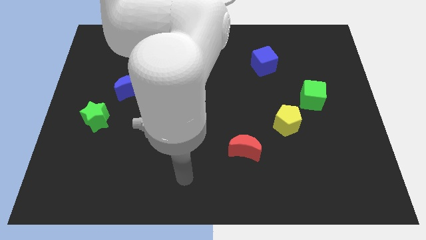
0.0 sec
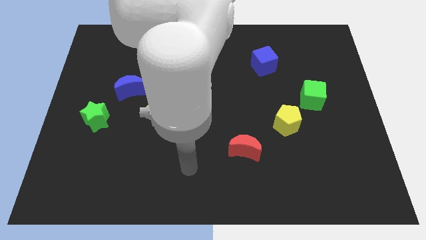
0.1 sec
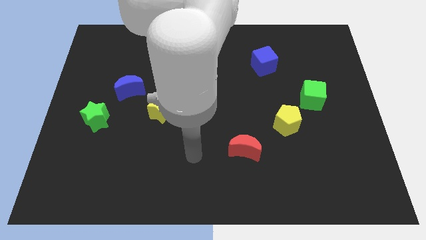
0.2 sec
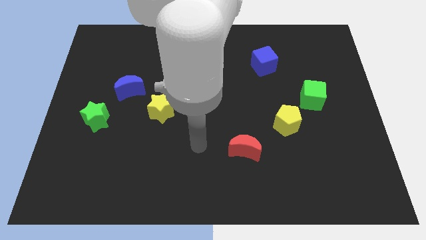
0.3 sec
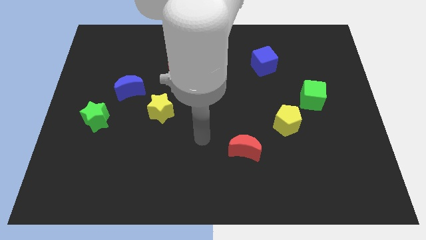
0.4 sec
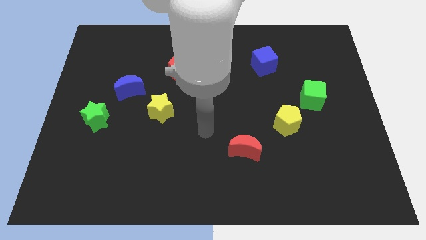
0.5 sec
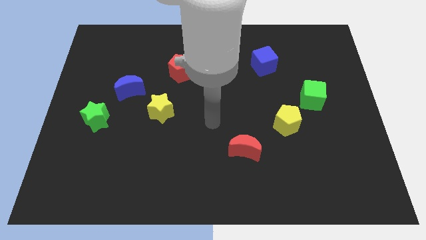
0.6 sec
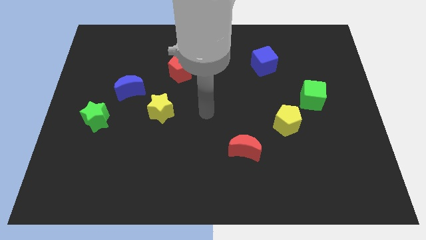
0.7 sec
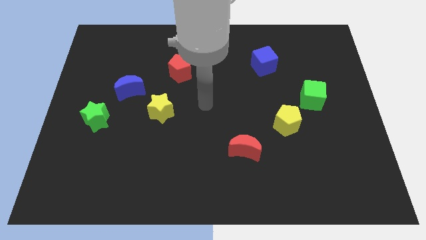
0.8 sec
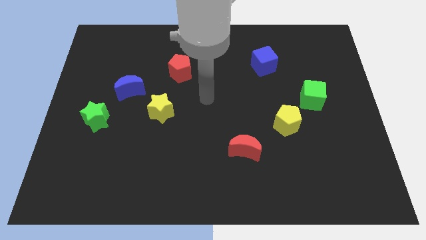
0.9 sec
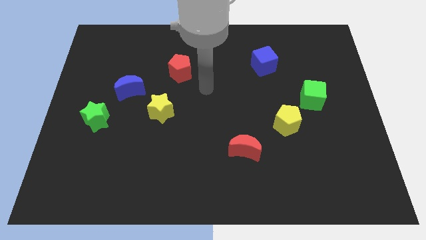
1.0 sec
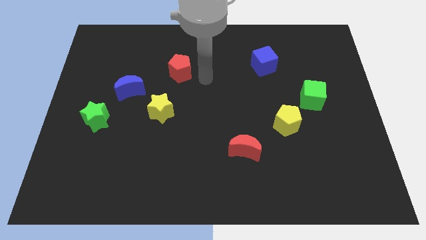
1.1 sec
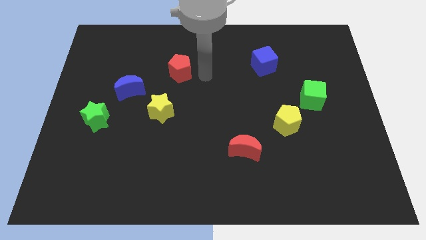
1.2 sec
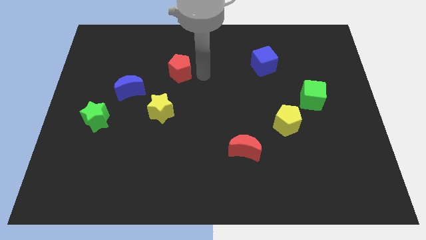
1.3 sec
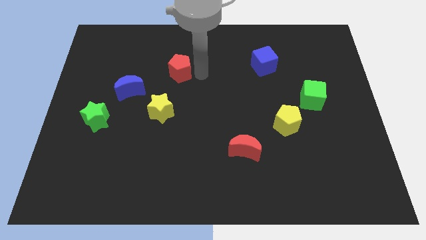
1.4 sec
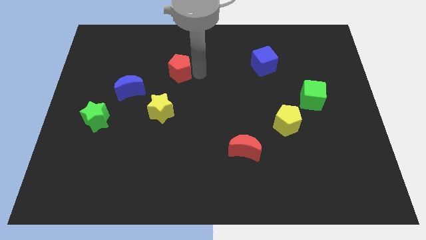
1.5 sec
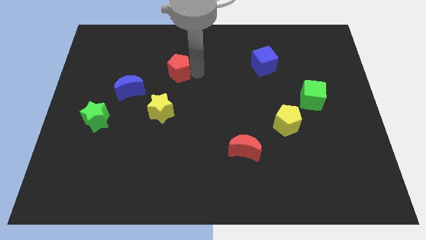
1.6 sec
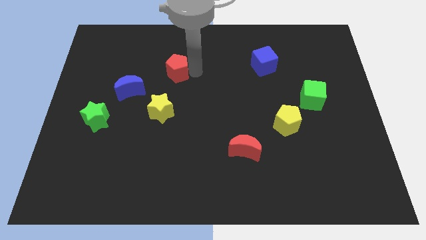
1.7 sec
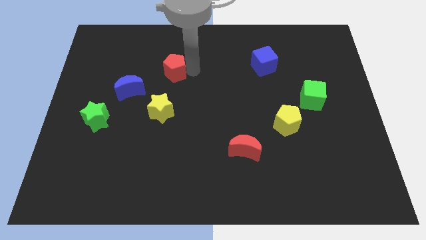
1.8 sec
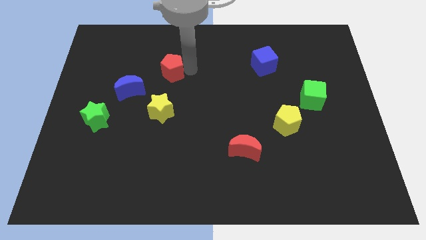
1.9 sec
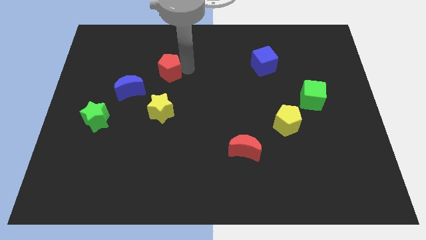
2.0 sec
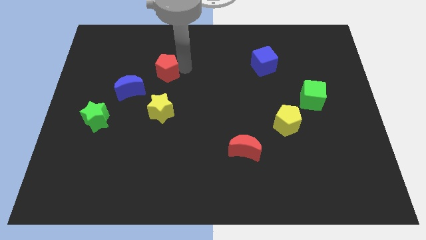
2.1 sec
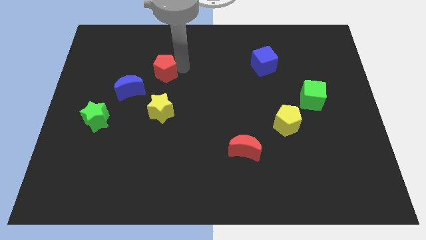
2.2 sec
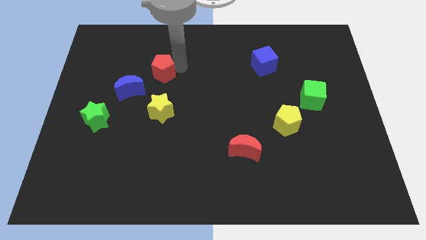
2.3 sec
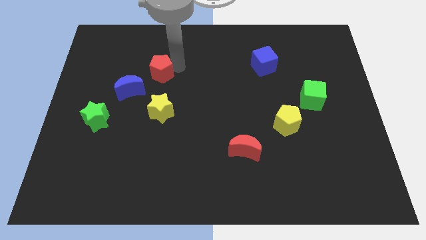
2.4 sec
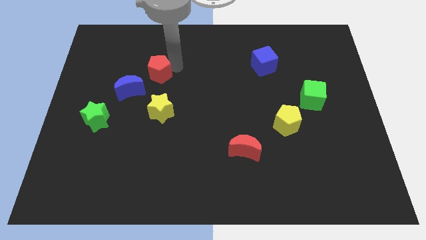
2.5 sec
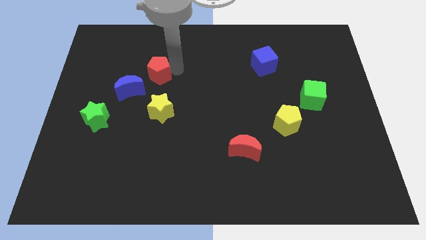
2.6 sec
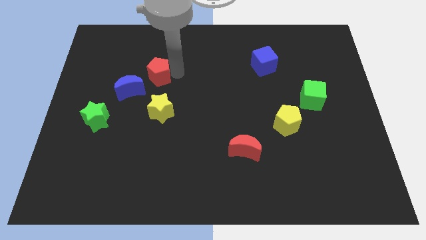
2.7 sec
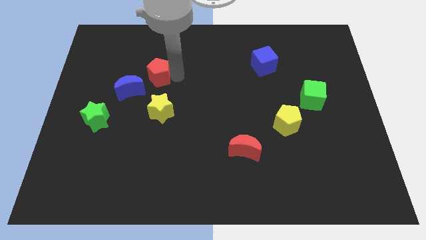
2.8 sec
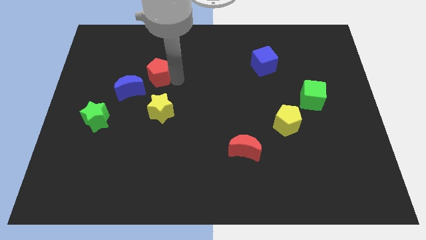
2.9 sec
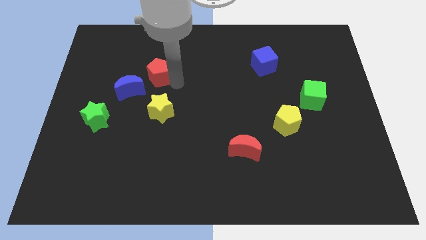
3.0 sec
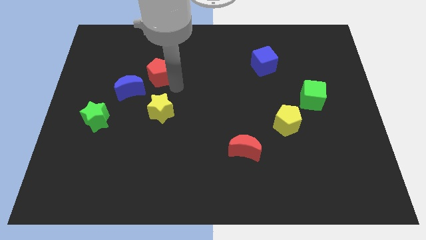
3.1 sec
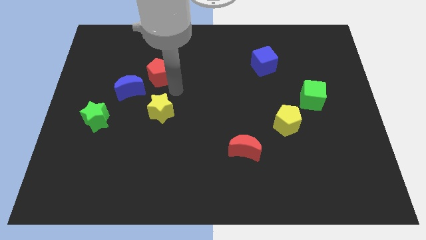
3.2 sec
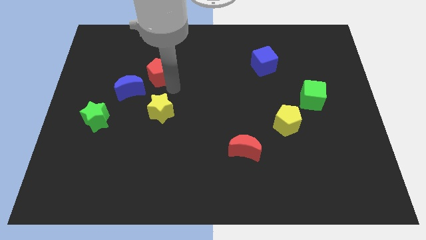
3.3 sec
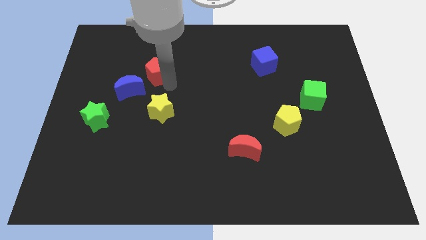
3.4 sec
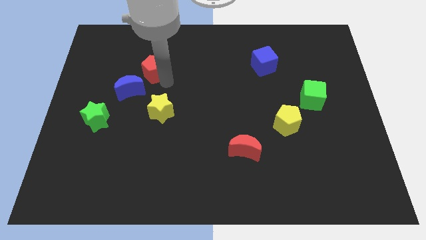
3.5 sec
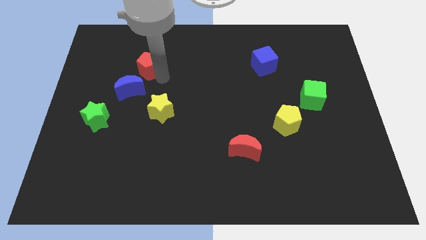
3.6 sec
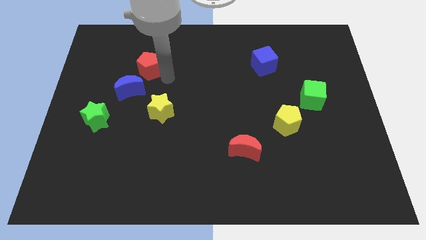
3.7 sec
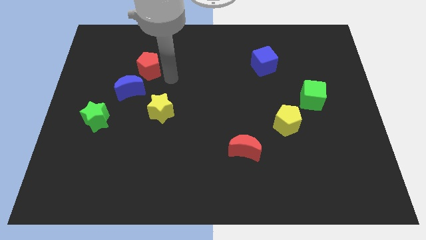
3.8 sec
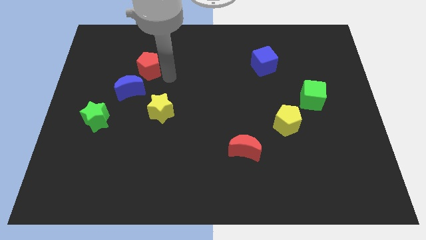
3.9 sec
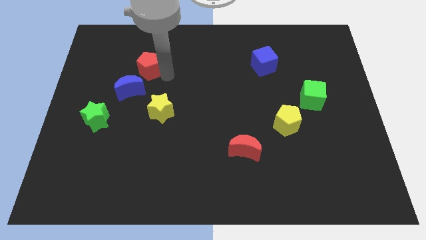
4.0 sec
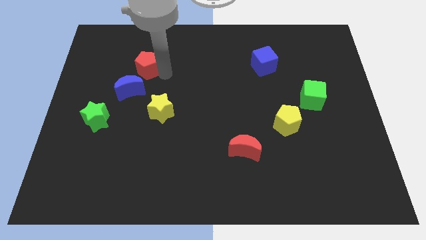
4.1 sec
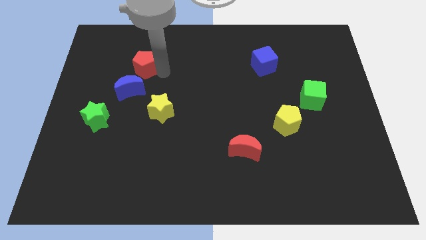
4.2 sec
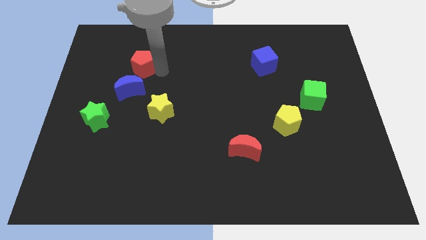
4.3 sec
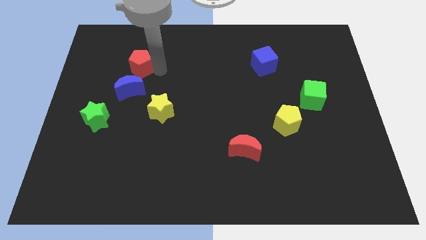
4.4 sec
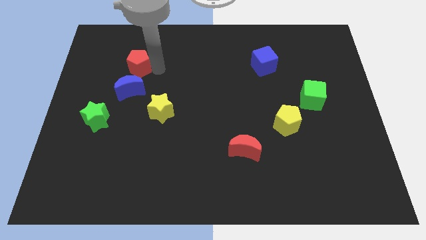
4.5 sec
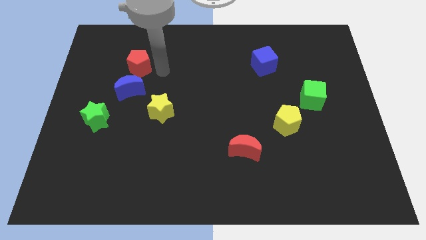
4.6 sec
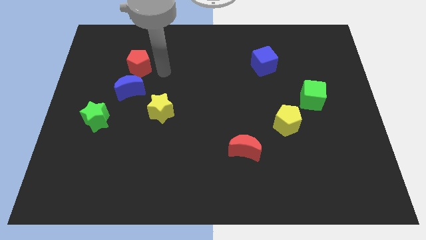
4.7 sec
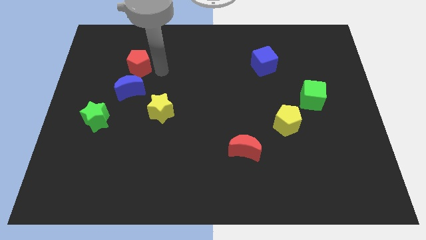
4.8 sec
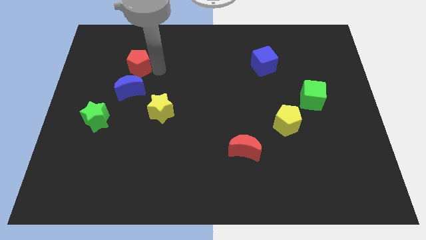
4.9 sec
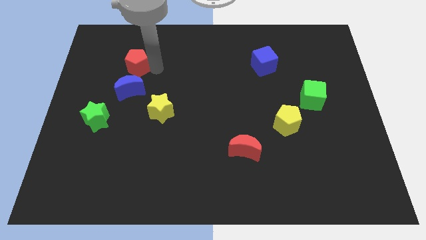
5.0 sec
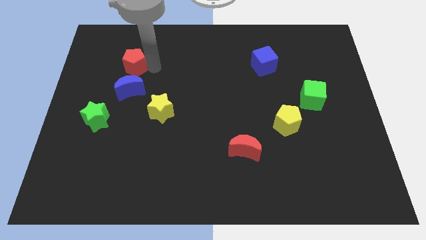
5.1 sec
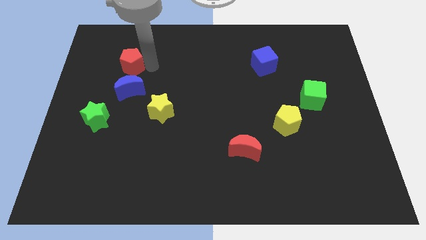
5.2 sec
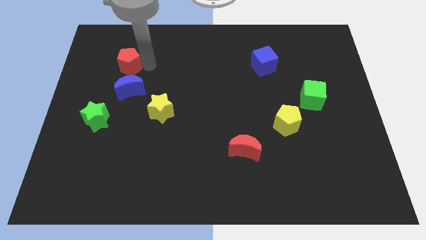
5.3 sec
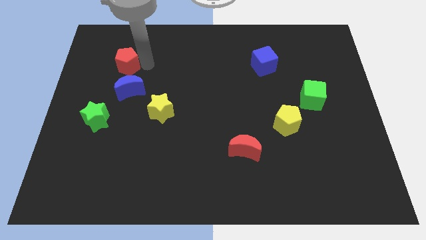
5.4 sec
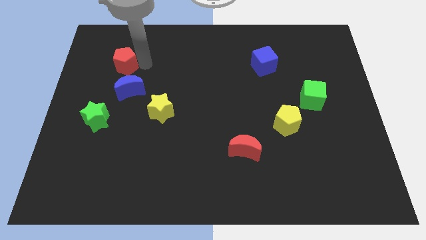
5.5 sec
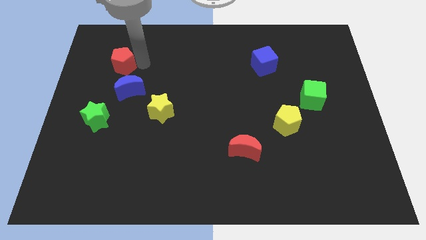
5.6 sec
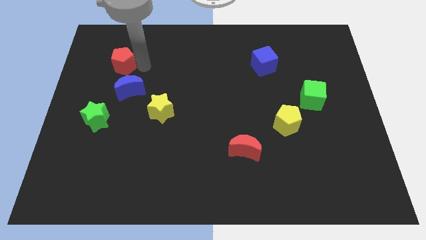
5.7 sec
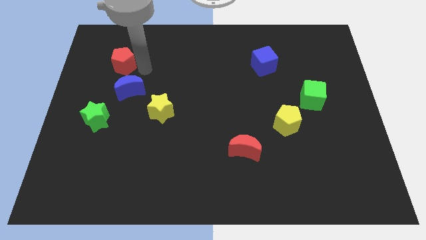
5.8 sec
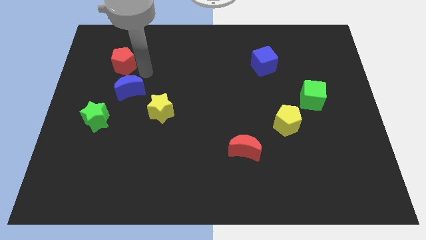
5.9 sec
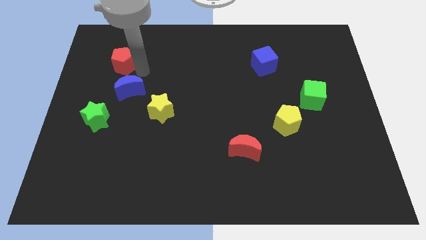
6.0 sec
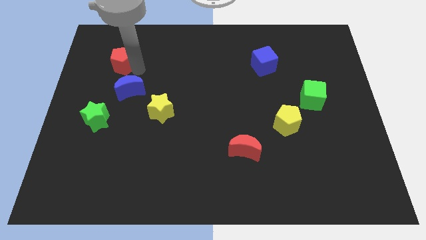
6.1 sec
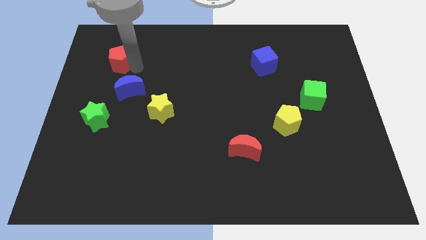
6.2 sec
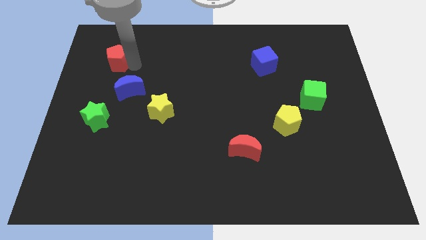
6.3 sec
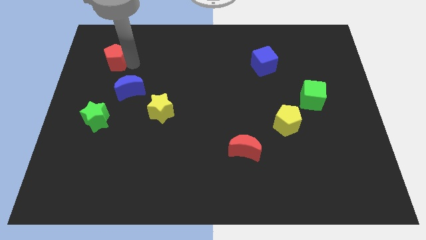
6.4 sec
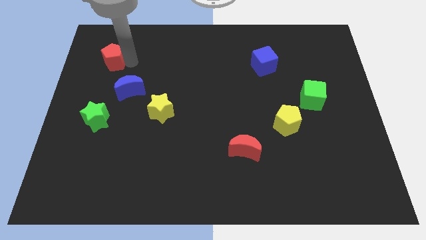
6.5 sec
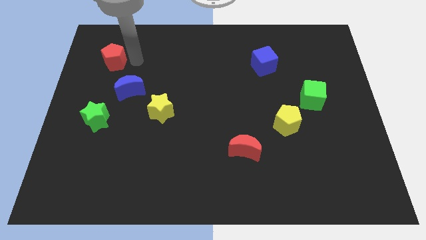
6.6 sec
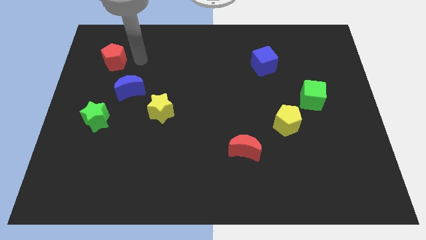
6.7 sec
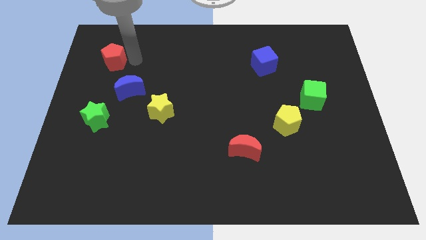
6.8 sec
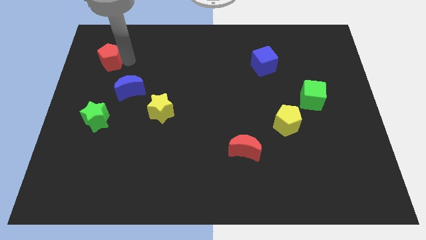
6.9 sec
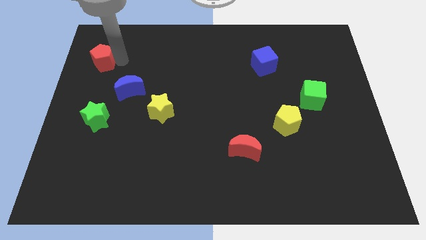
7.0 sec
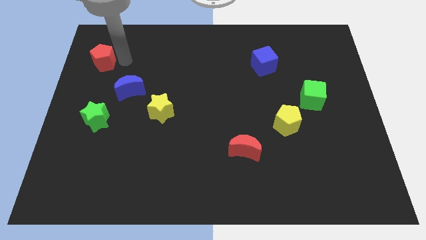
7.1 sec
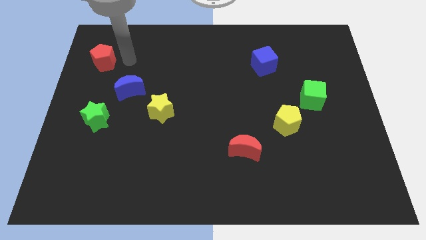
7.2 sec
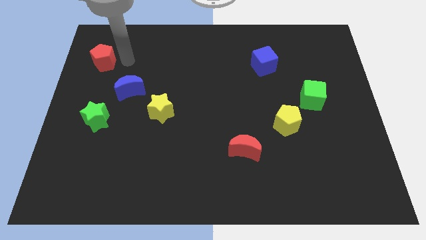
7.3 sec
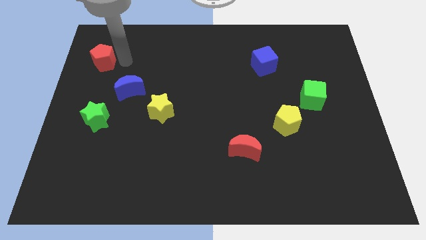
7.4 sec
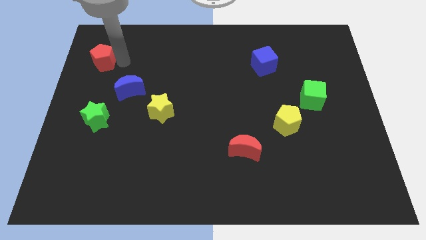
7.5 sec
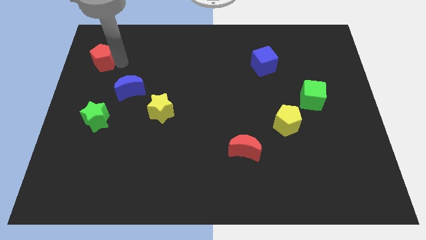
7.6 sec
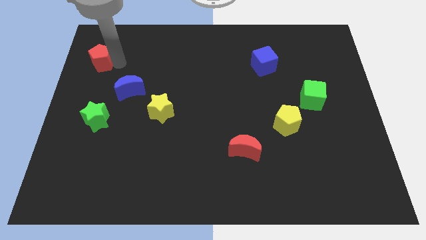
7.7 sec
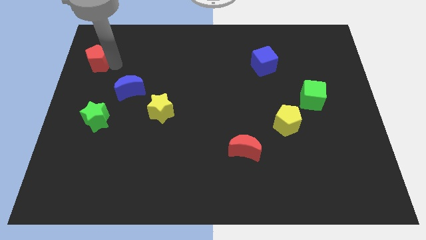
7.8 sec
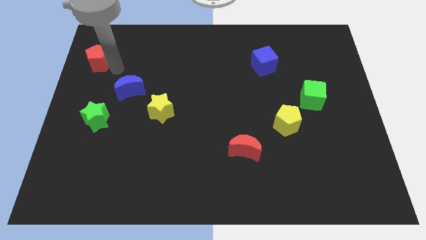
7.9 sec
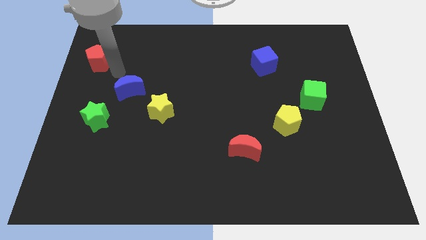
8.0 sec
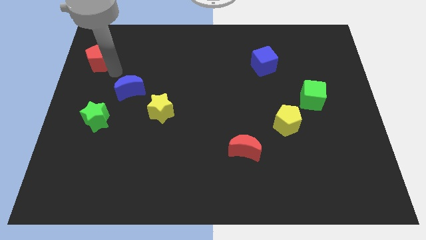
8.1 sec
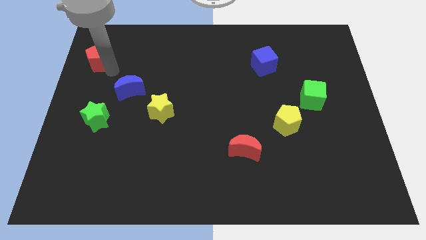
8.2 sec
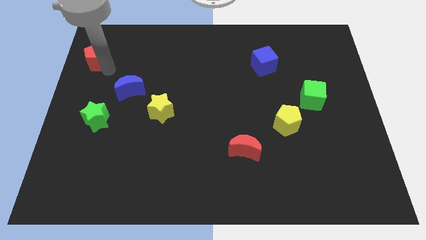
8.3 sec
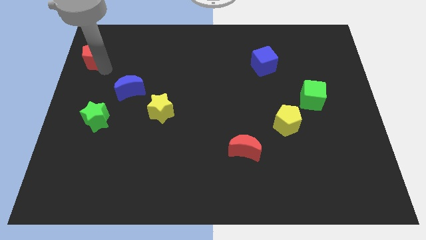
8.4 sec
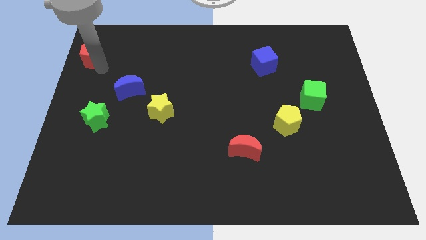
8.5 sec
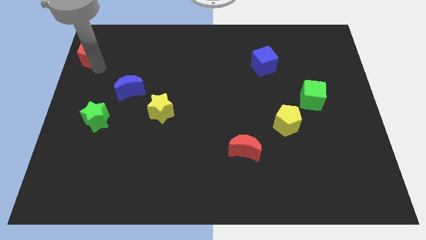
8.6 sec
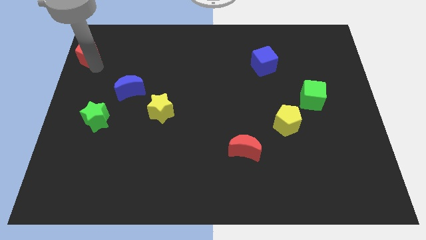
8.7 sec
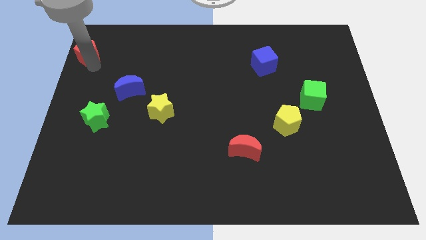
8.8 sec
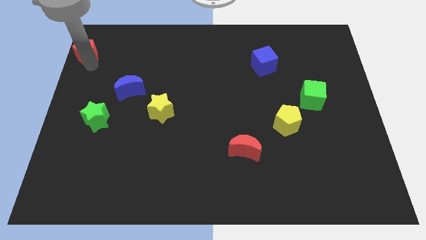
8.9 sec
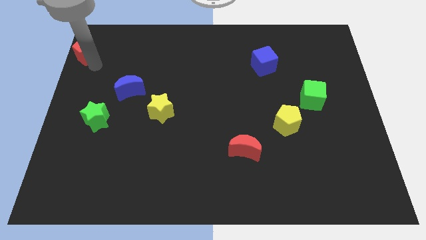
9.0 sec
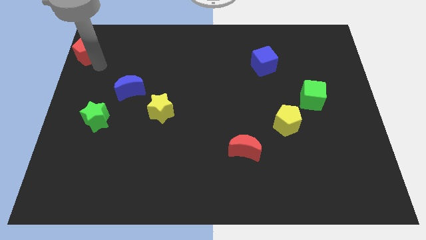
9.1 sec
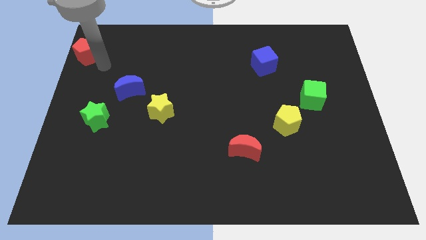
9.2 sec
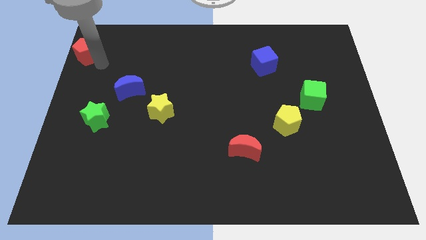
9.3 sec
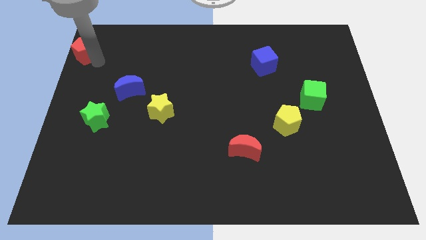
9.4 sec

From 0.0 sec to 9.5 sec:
put the red pentagon to the top left corner
